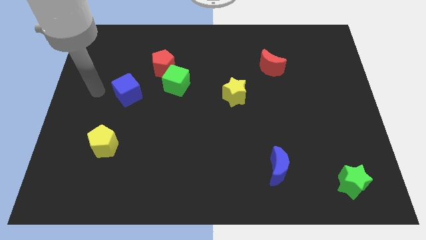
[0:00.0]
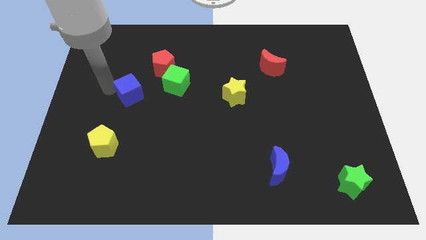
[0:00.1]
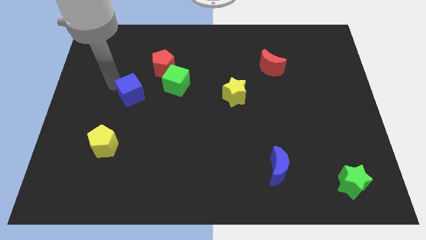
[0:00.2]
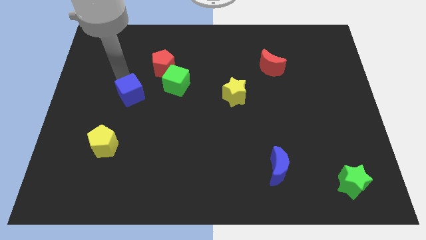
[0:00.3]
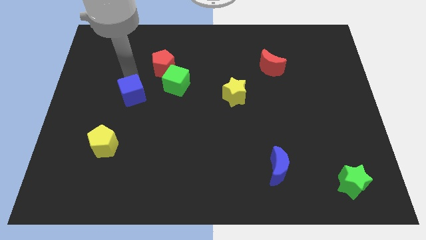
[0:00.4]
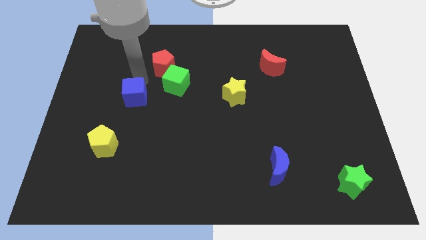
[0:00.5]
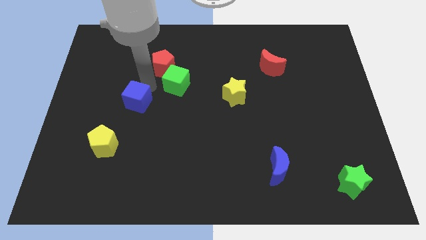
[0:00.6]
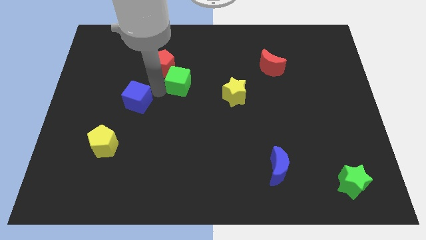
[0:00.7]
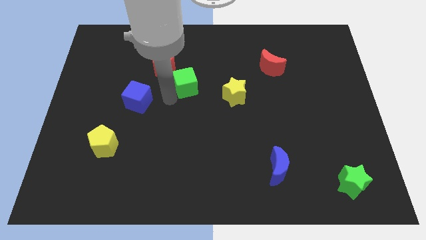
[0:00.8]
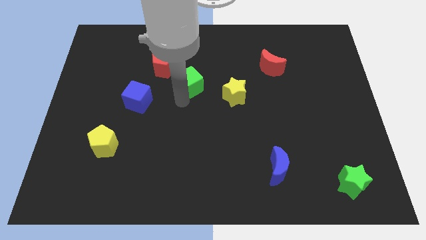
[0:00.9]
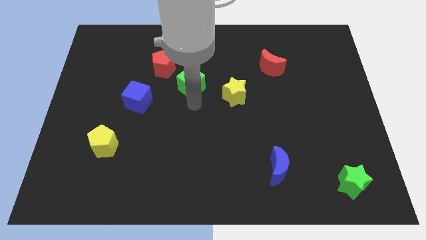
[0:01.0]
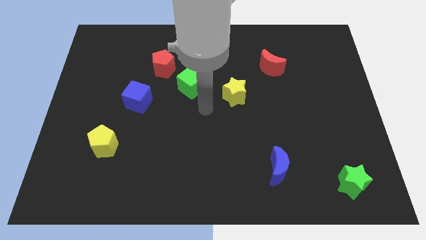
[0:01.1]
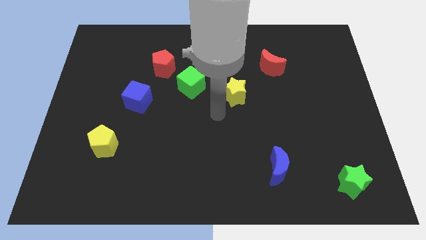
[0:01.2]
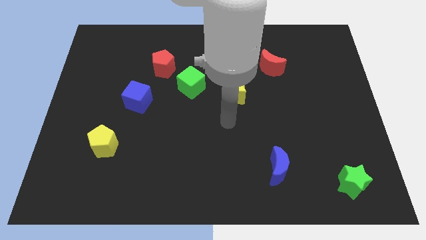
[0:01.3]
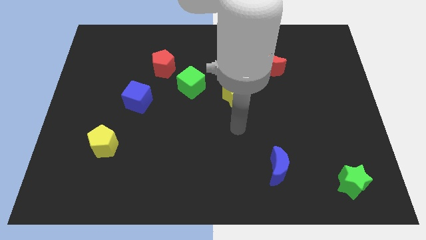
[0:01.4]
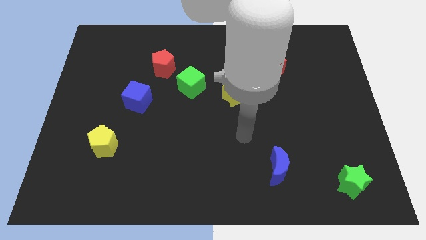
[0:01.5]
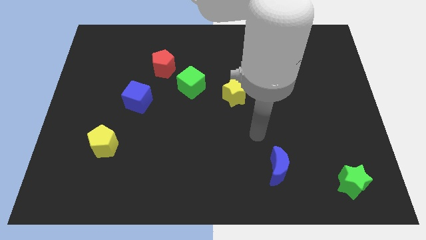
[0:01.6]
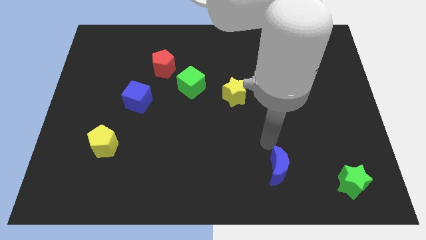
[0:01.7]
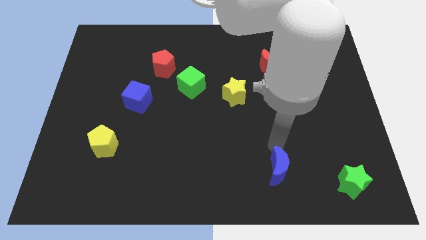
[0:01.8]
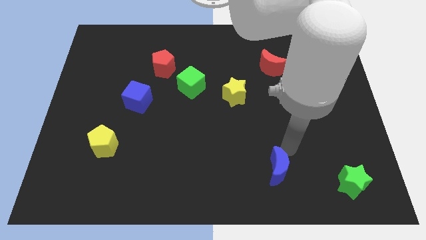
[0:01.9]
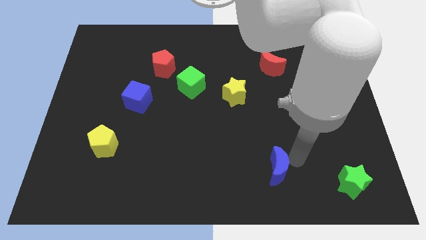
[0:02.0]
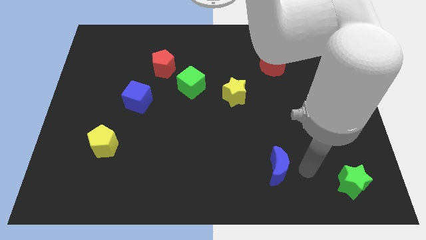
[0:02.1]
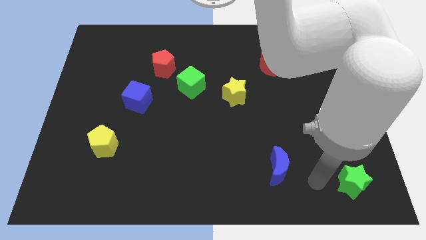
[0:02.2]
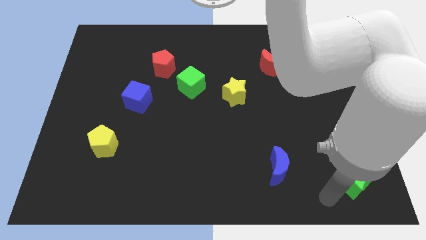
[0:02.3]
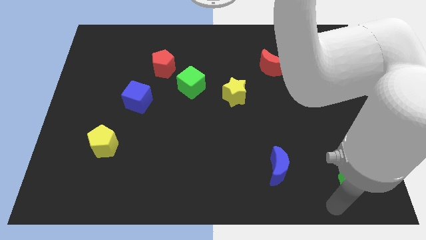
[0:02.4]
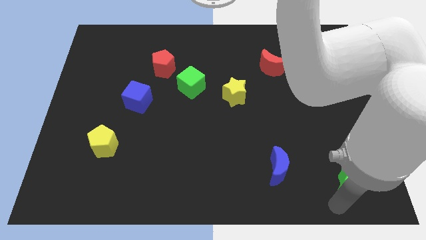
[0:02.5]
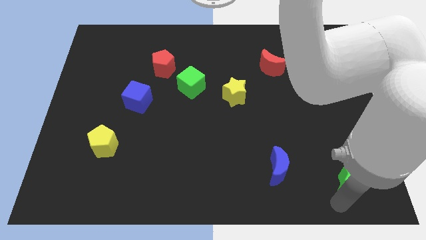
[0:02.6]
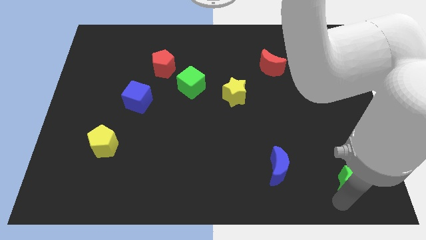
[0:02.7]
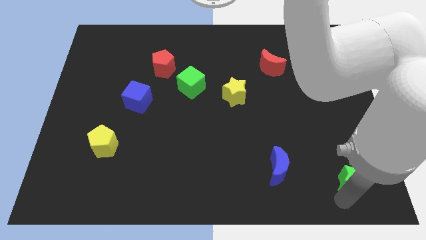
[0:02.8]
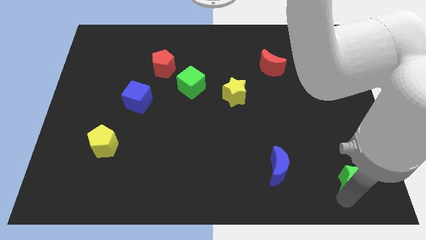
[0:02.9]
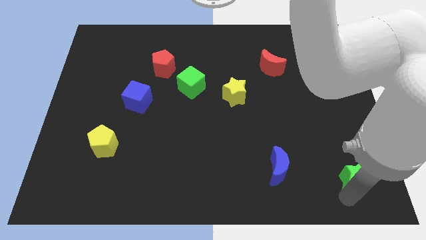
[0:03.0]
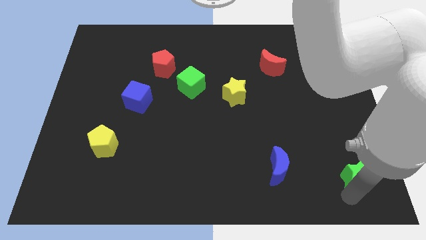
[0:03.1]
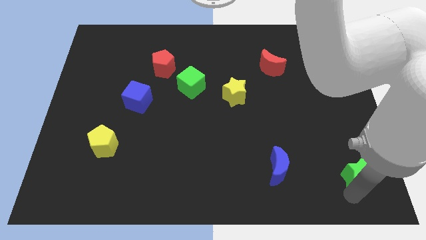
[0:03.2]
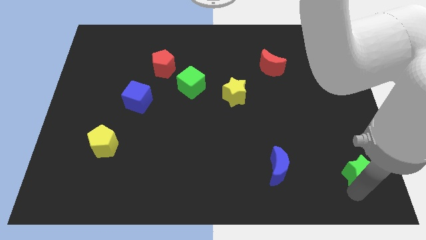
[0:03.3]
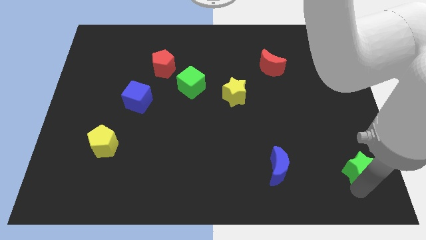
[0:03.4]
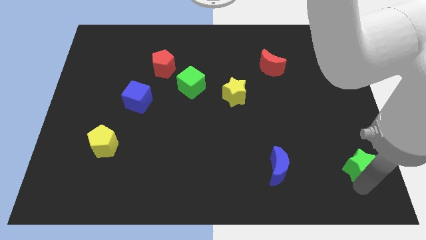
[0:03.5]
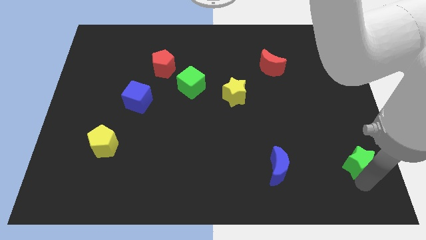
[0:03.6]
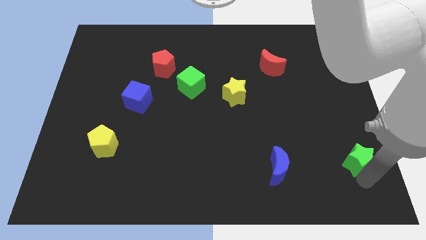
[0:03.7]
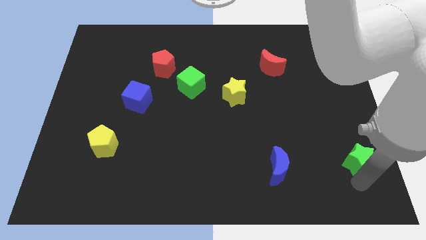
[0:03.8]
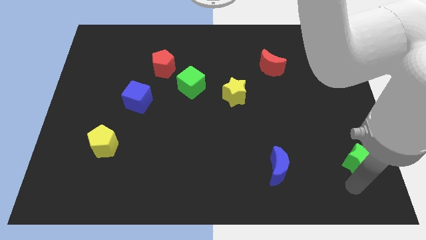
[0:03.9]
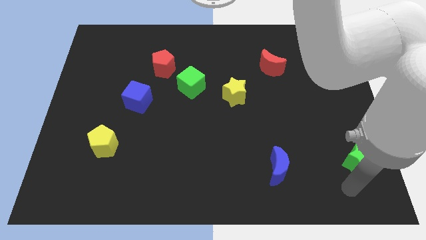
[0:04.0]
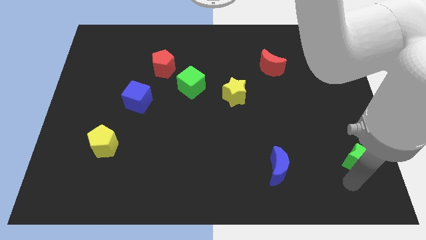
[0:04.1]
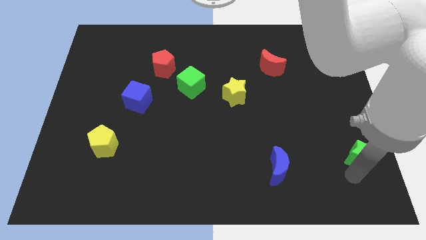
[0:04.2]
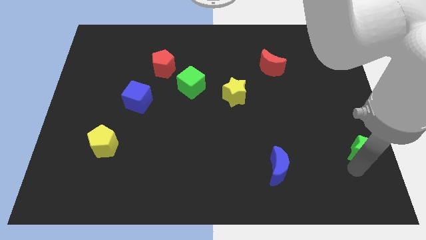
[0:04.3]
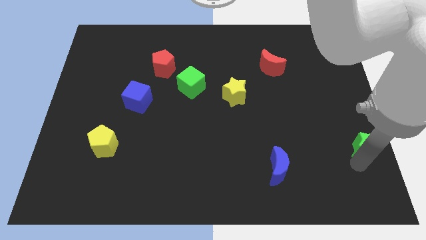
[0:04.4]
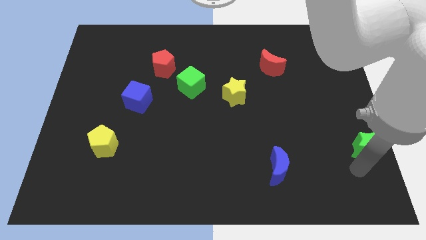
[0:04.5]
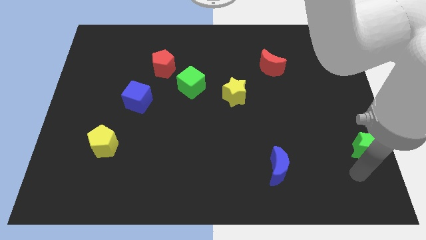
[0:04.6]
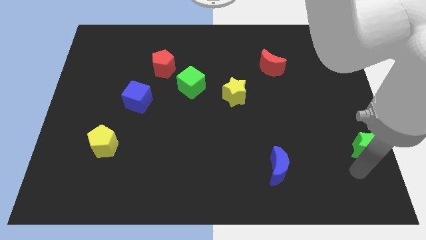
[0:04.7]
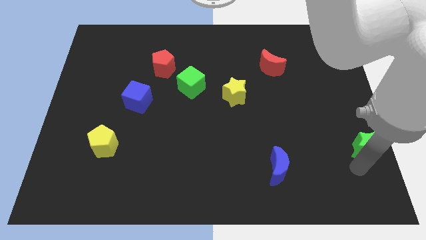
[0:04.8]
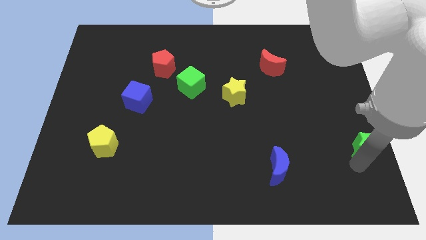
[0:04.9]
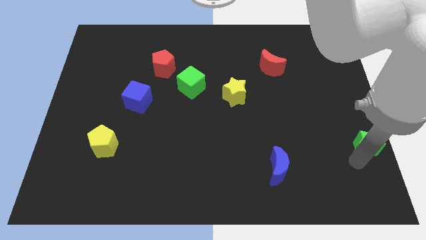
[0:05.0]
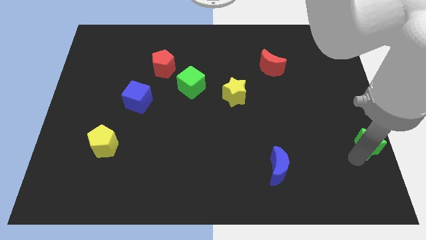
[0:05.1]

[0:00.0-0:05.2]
push the green star to the right side

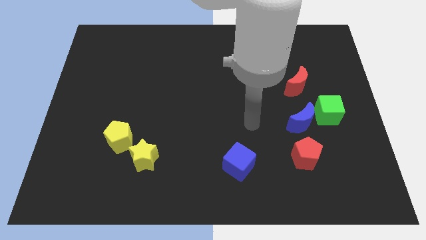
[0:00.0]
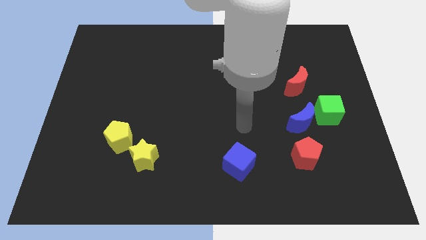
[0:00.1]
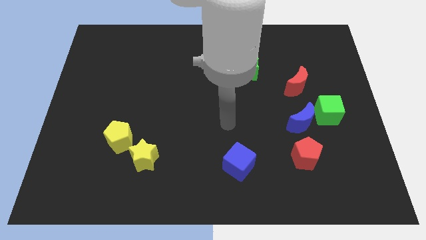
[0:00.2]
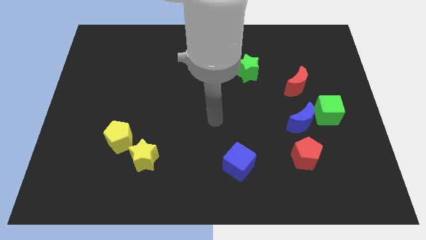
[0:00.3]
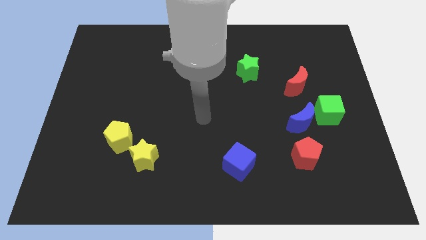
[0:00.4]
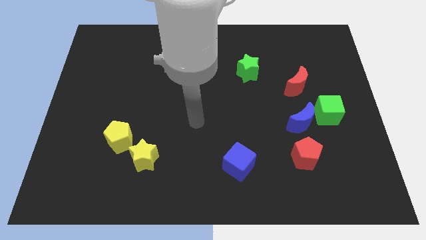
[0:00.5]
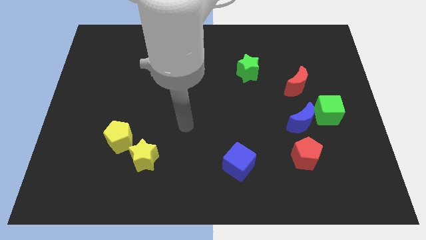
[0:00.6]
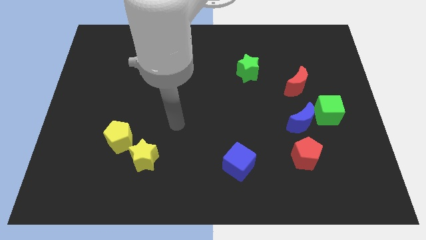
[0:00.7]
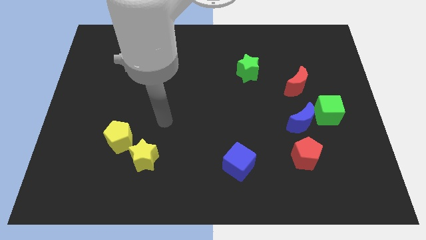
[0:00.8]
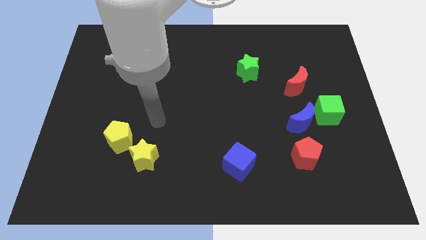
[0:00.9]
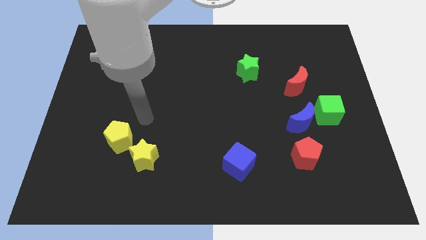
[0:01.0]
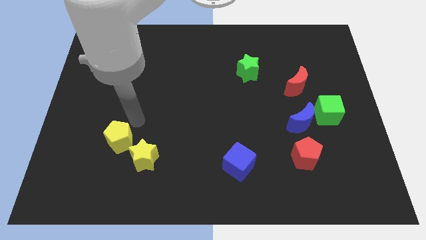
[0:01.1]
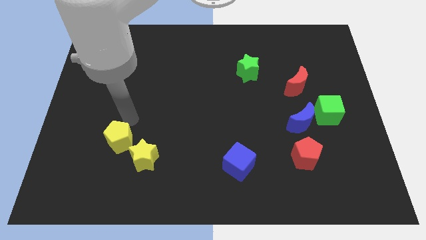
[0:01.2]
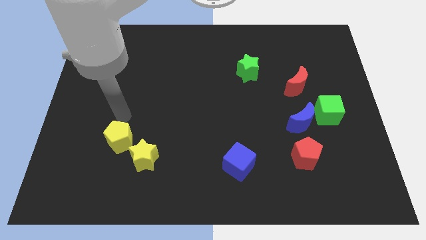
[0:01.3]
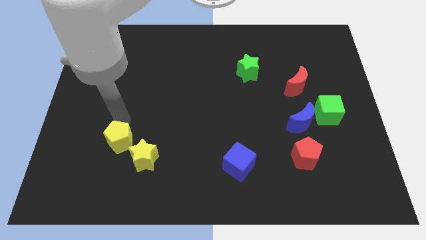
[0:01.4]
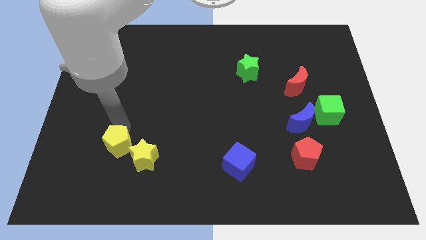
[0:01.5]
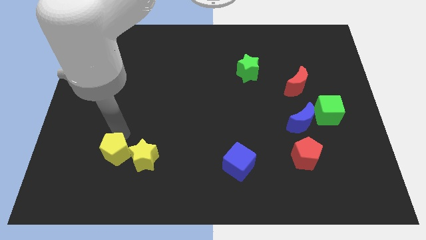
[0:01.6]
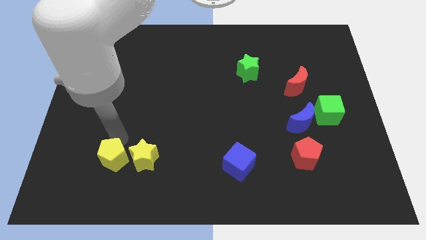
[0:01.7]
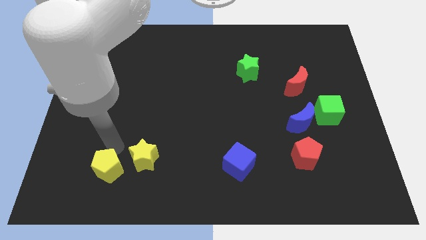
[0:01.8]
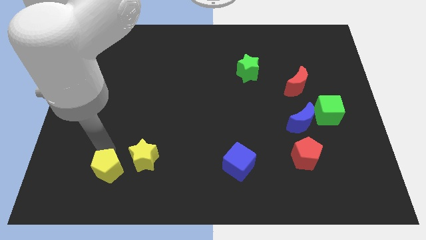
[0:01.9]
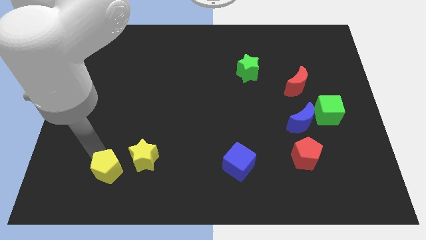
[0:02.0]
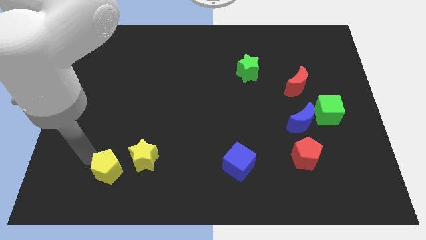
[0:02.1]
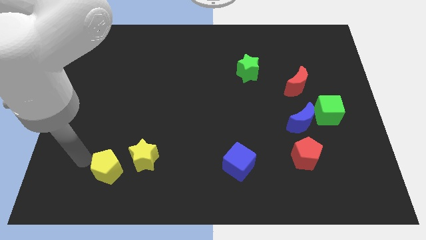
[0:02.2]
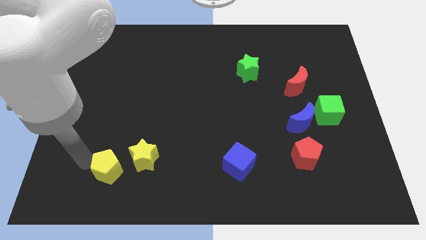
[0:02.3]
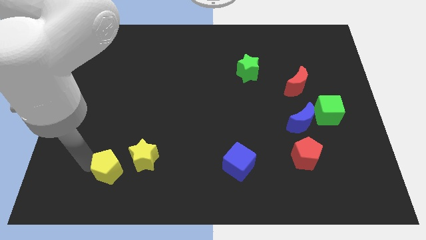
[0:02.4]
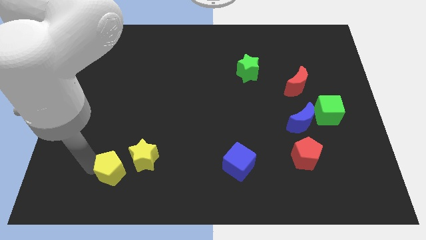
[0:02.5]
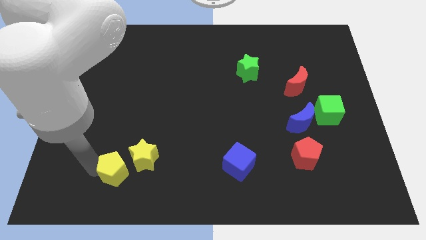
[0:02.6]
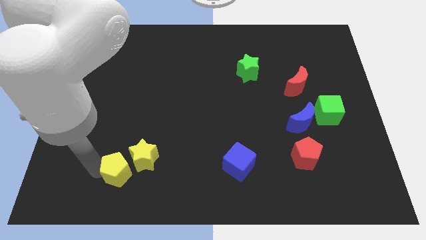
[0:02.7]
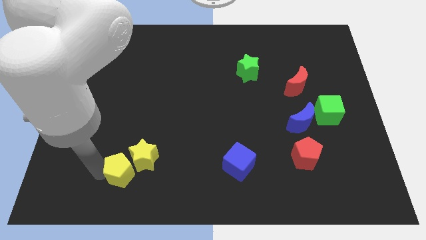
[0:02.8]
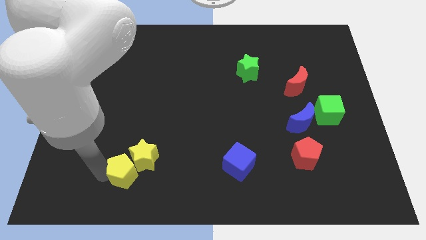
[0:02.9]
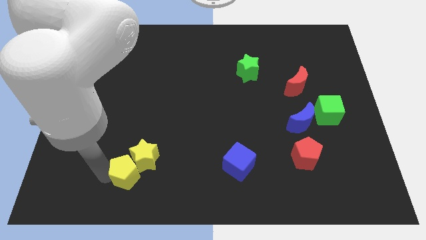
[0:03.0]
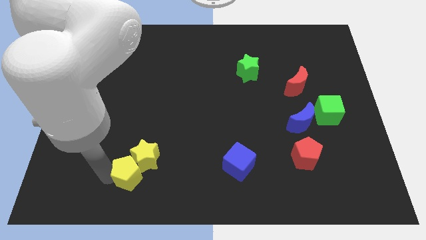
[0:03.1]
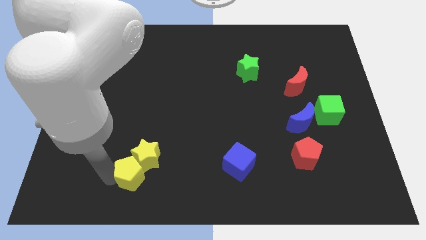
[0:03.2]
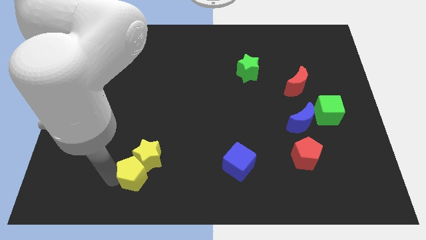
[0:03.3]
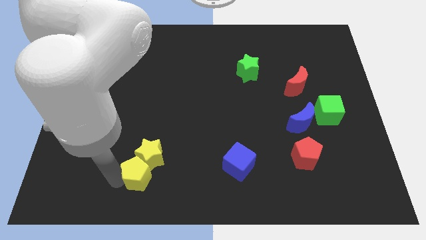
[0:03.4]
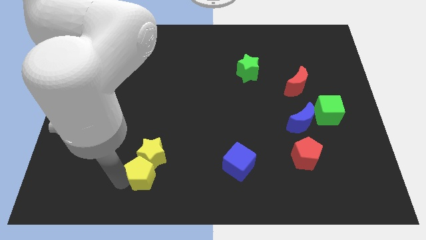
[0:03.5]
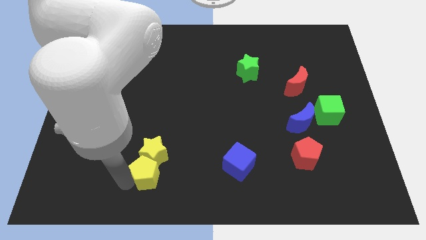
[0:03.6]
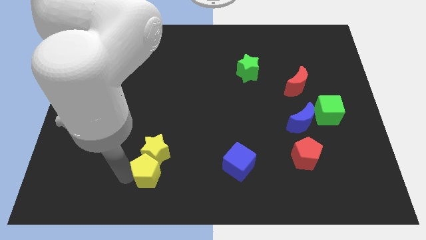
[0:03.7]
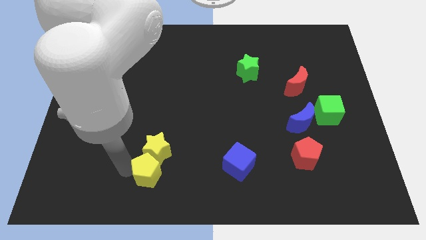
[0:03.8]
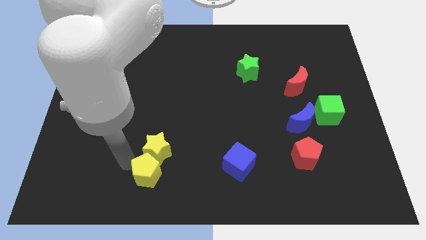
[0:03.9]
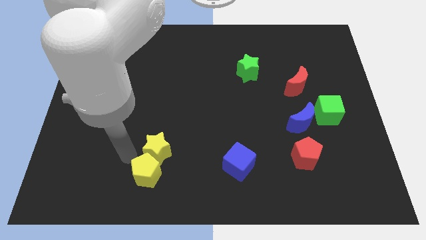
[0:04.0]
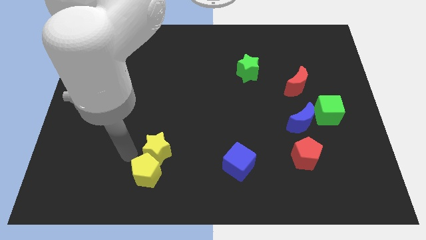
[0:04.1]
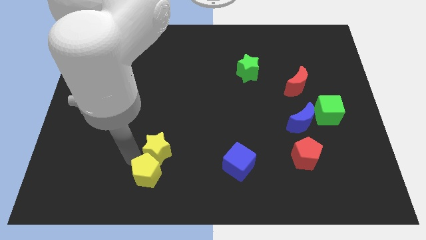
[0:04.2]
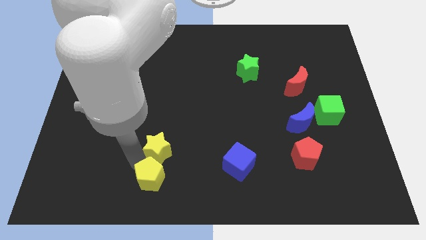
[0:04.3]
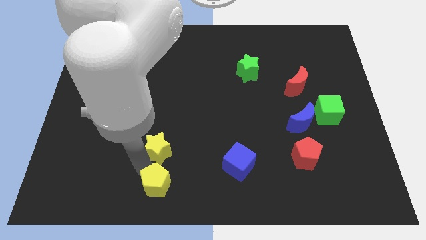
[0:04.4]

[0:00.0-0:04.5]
put the yellow pentagon to the bottom side
